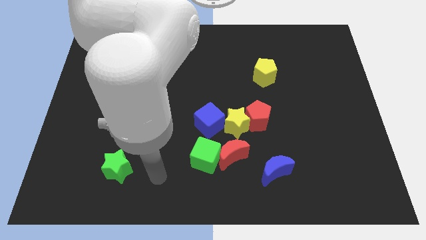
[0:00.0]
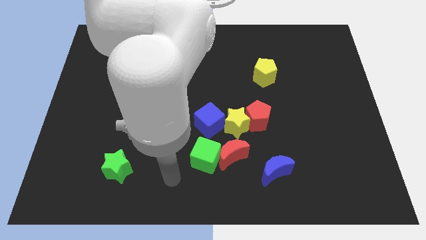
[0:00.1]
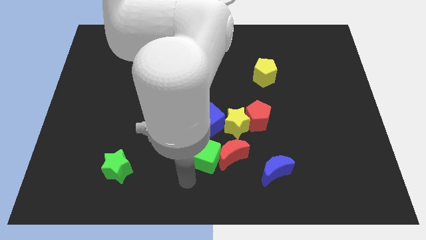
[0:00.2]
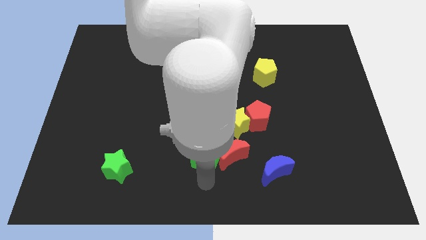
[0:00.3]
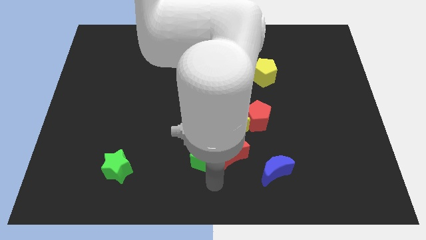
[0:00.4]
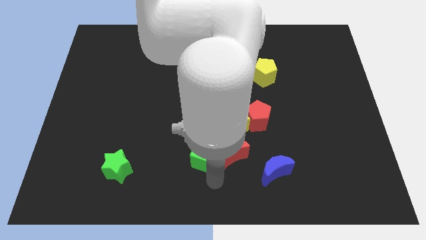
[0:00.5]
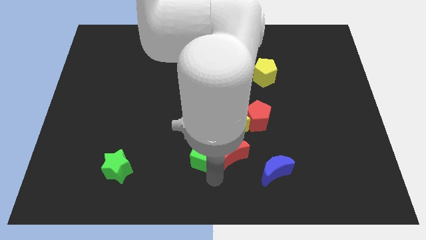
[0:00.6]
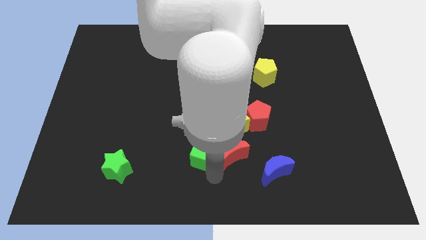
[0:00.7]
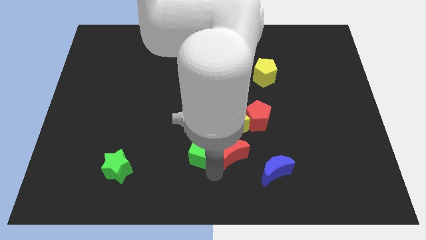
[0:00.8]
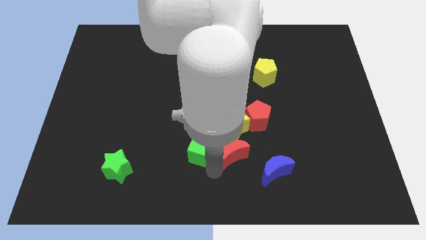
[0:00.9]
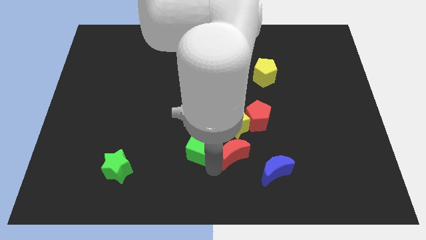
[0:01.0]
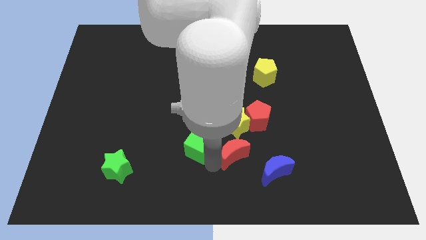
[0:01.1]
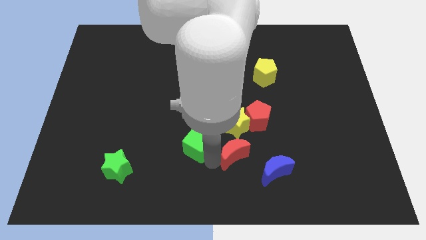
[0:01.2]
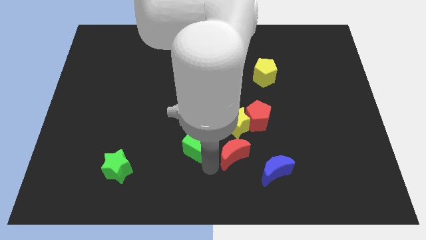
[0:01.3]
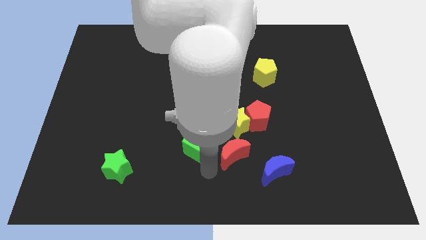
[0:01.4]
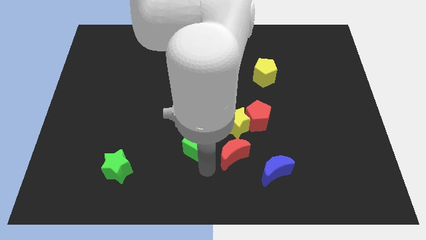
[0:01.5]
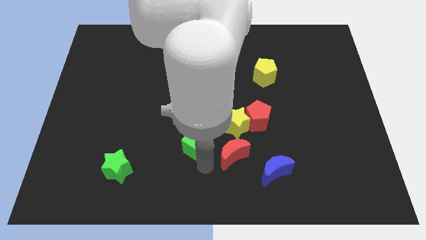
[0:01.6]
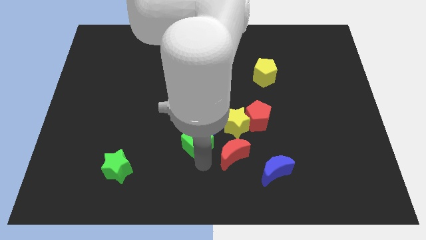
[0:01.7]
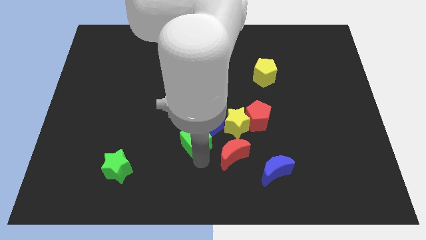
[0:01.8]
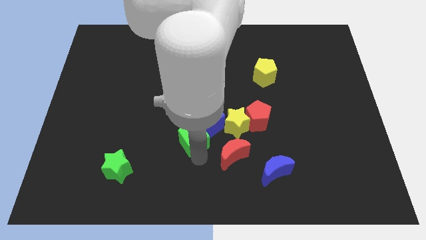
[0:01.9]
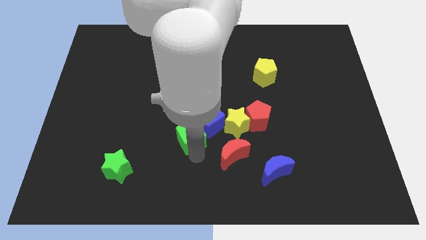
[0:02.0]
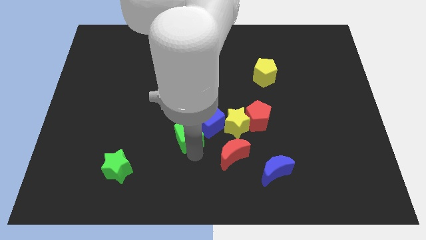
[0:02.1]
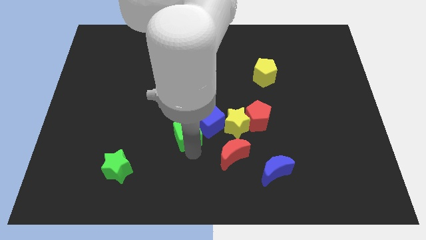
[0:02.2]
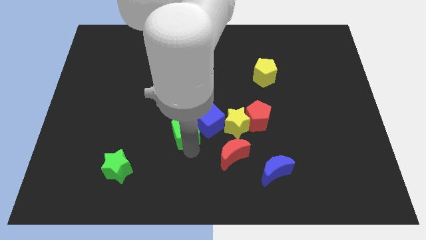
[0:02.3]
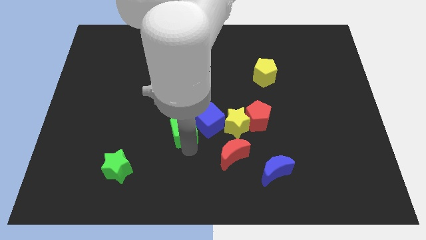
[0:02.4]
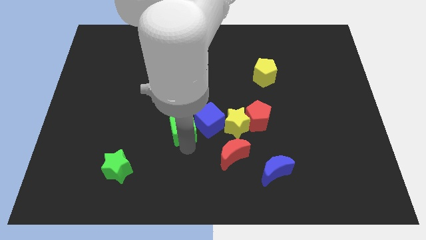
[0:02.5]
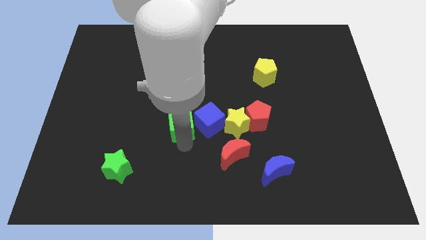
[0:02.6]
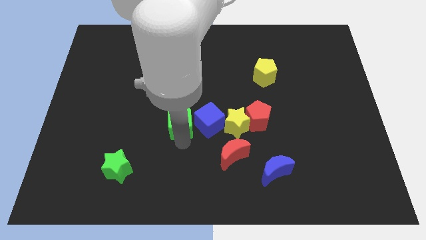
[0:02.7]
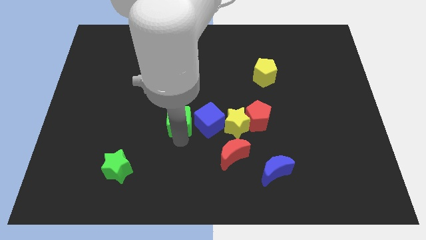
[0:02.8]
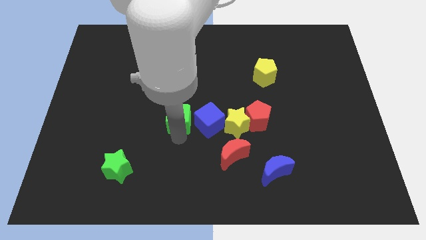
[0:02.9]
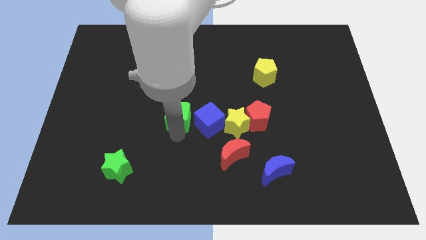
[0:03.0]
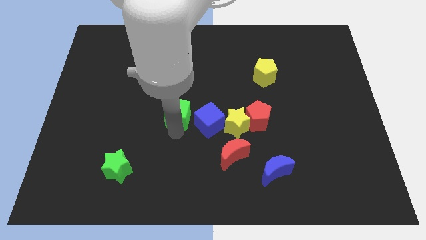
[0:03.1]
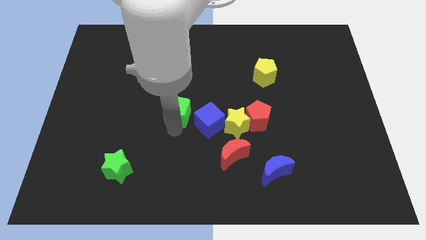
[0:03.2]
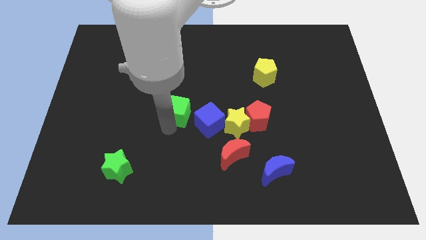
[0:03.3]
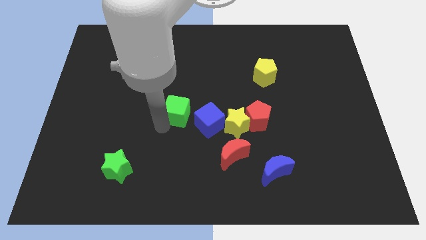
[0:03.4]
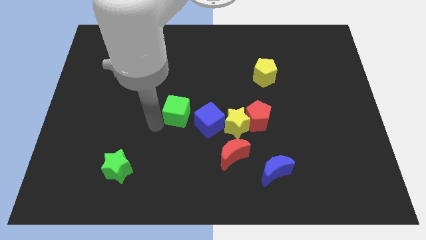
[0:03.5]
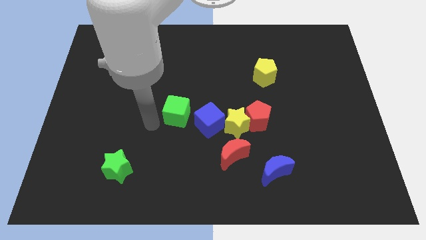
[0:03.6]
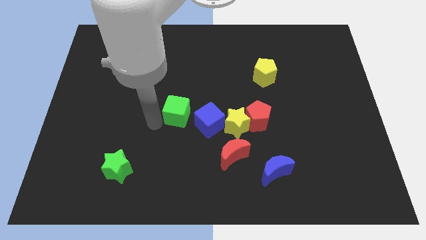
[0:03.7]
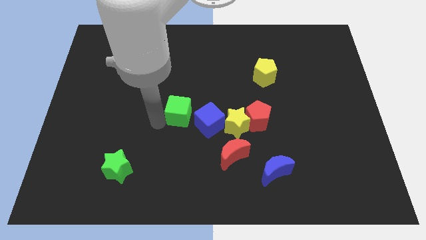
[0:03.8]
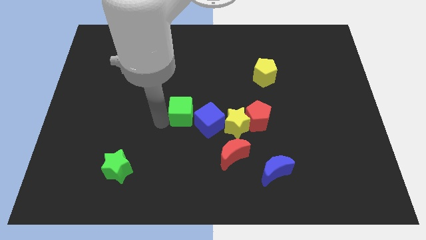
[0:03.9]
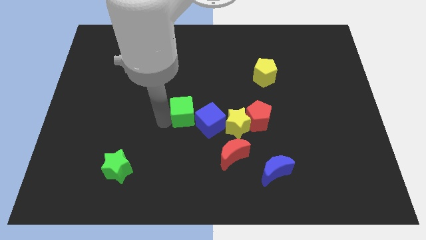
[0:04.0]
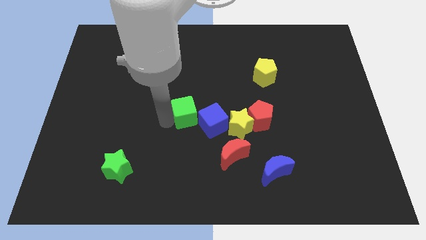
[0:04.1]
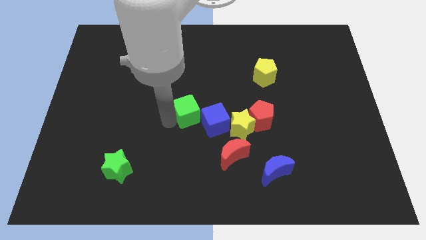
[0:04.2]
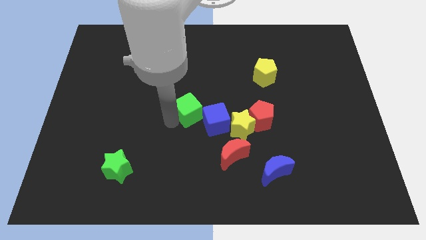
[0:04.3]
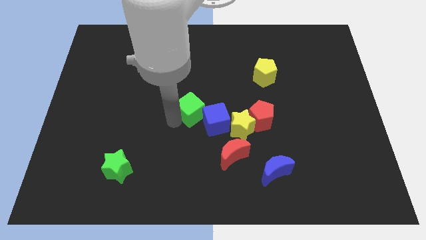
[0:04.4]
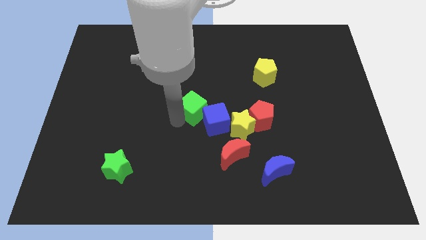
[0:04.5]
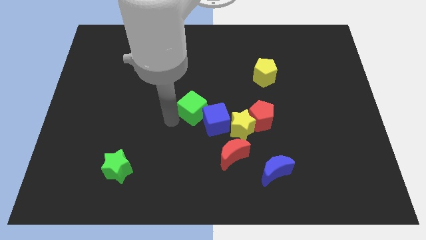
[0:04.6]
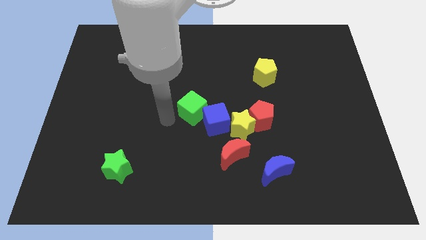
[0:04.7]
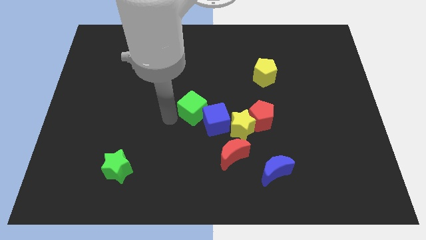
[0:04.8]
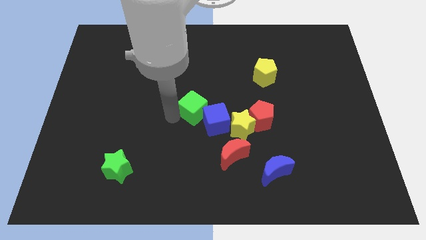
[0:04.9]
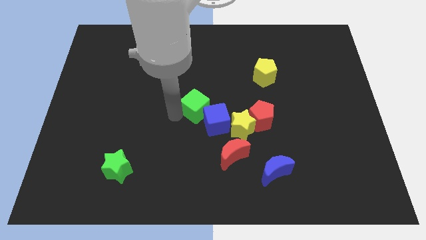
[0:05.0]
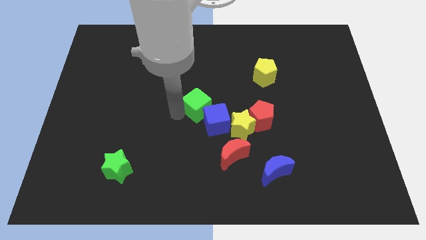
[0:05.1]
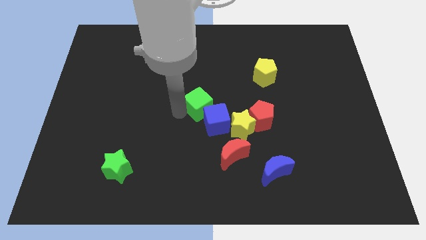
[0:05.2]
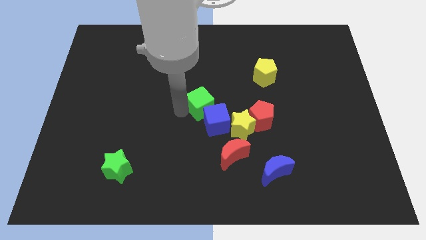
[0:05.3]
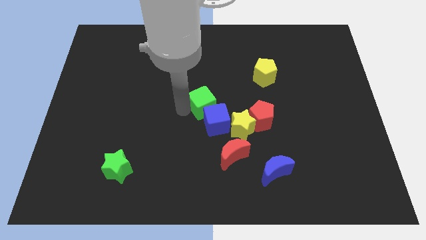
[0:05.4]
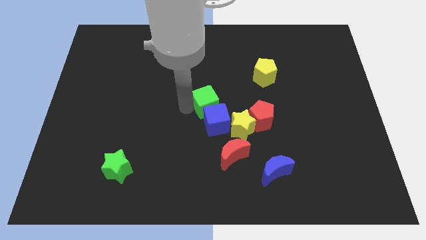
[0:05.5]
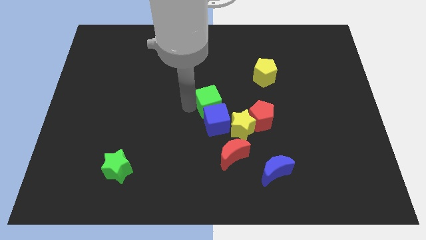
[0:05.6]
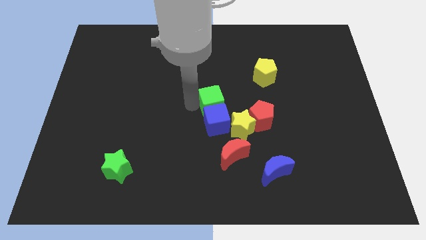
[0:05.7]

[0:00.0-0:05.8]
move the green cube up and to the right a little bit

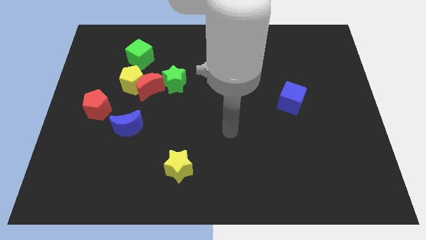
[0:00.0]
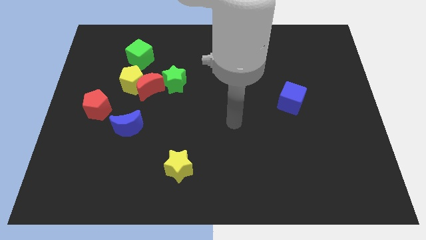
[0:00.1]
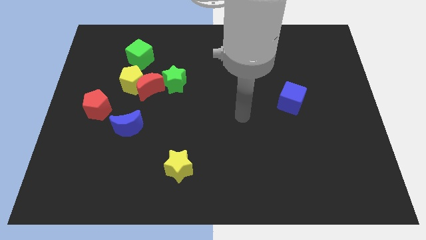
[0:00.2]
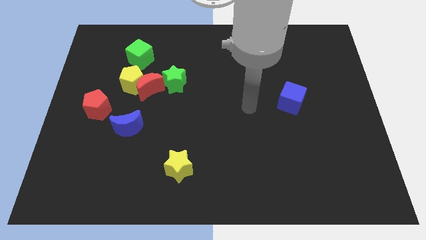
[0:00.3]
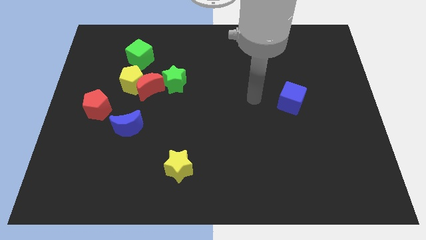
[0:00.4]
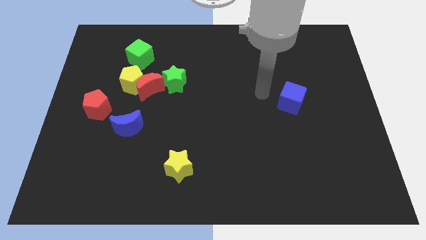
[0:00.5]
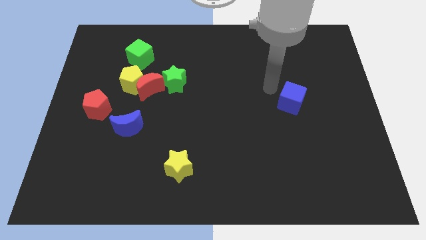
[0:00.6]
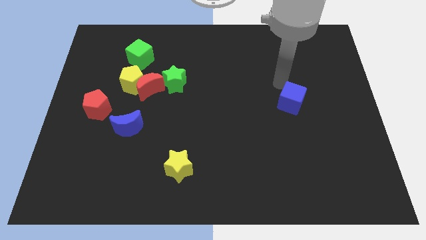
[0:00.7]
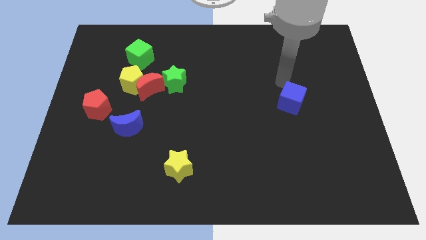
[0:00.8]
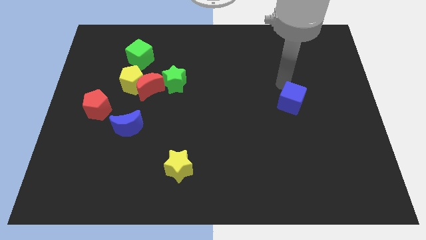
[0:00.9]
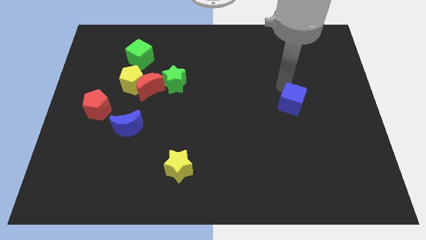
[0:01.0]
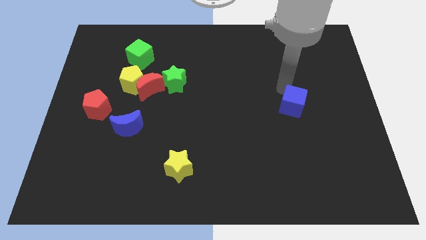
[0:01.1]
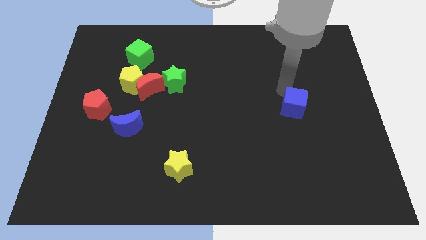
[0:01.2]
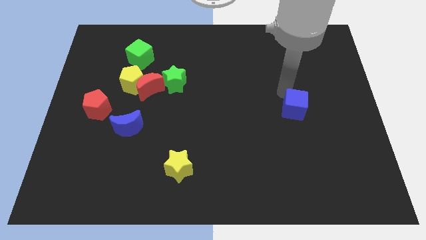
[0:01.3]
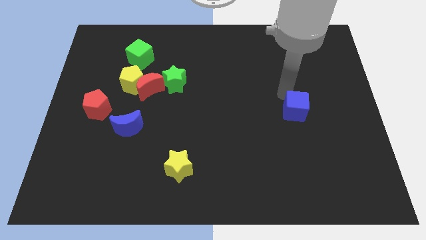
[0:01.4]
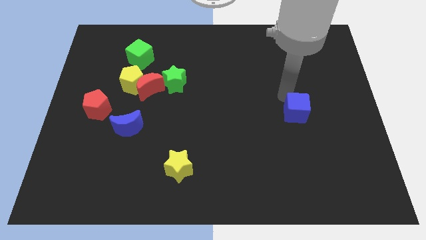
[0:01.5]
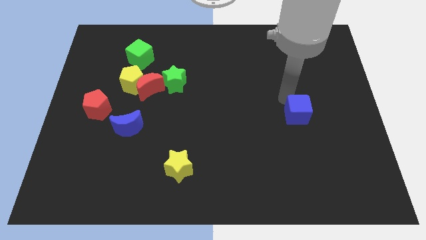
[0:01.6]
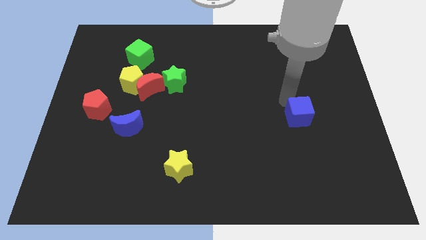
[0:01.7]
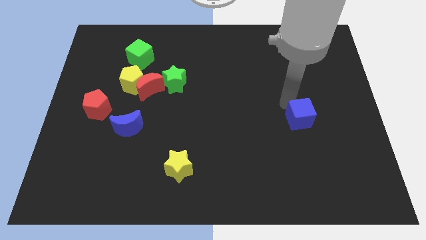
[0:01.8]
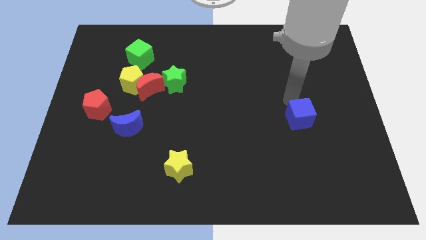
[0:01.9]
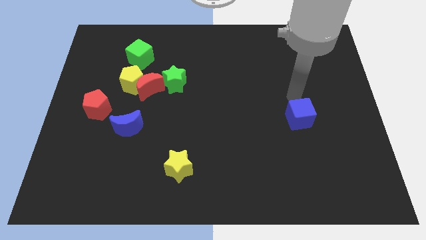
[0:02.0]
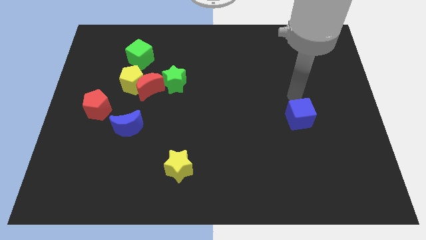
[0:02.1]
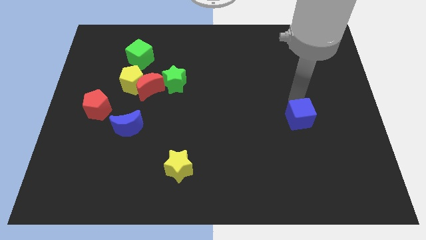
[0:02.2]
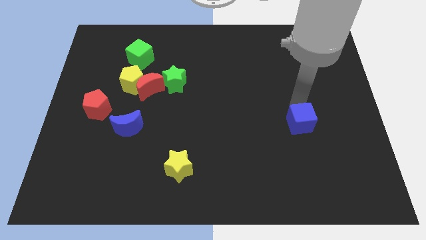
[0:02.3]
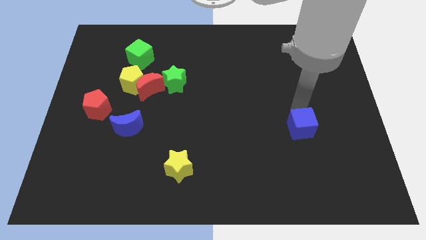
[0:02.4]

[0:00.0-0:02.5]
slide the blue cube somewhat down

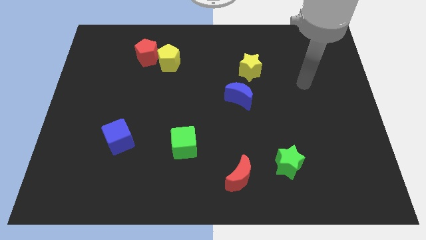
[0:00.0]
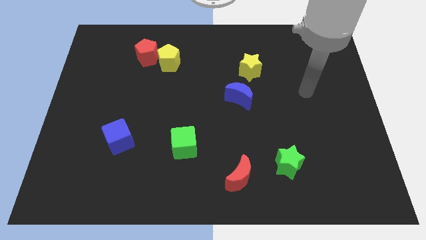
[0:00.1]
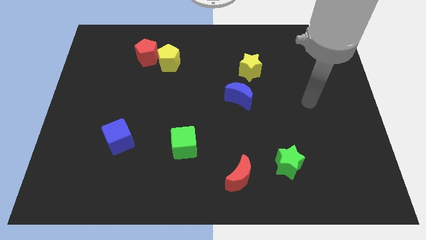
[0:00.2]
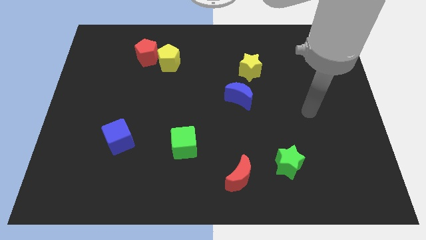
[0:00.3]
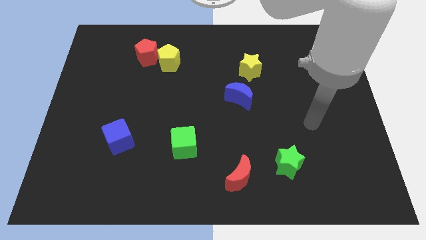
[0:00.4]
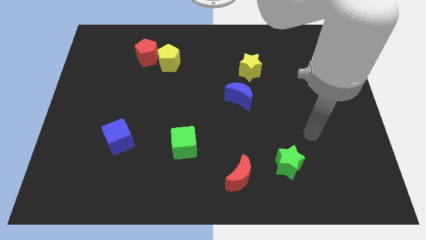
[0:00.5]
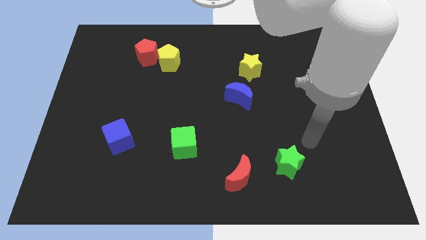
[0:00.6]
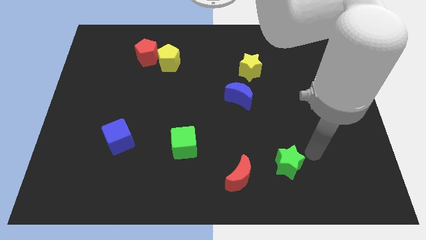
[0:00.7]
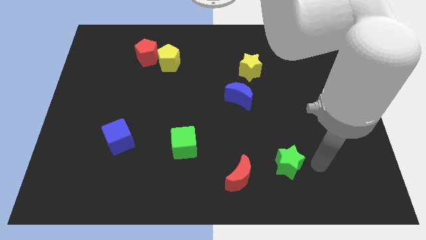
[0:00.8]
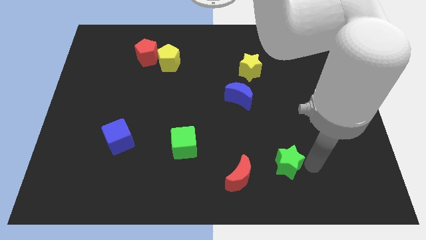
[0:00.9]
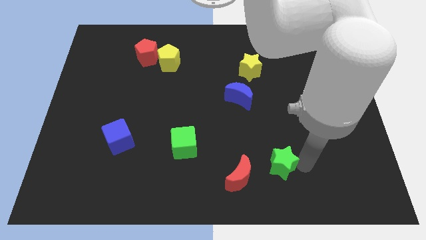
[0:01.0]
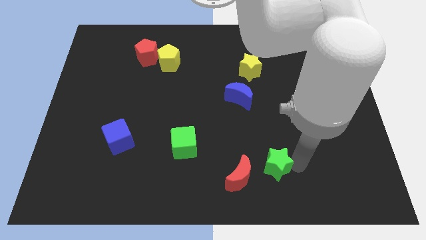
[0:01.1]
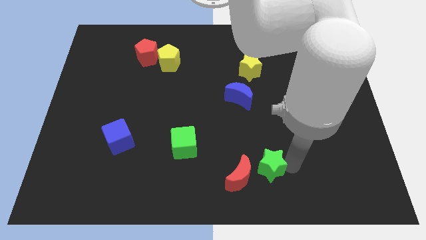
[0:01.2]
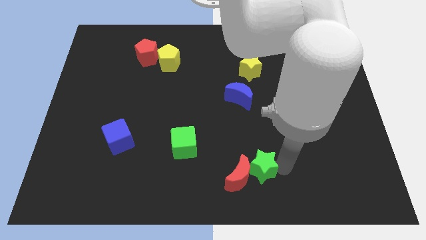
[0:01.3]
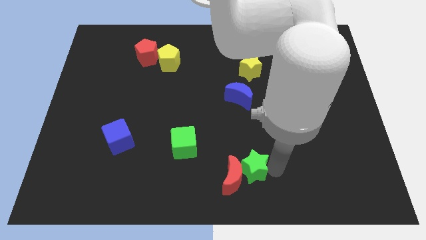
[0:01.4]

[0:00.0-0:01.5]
slightly move the green star to the left
